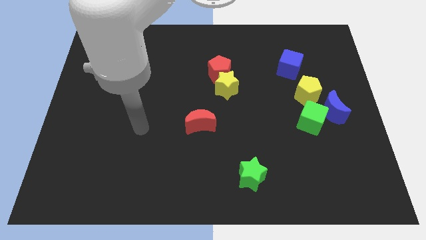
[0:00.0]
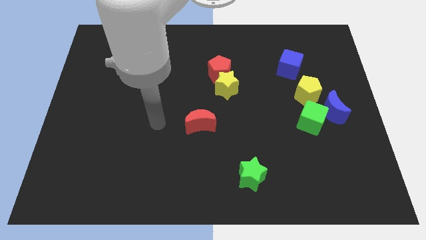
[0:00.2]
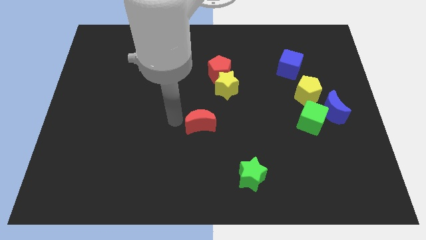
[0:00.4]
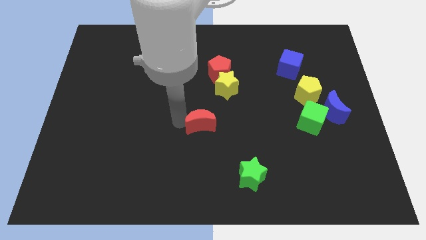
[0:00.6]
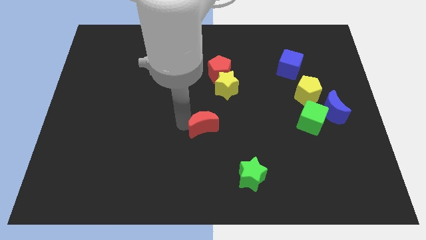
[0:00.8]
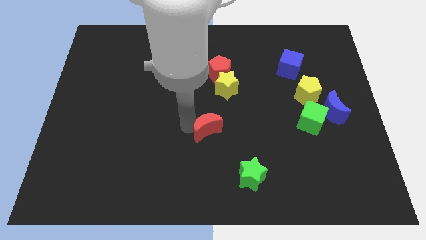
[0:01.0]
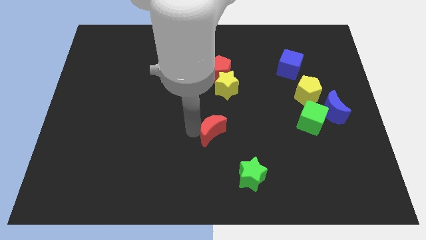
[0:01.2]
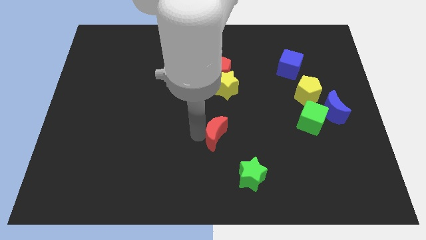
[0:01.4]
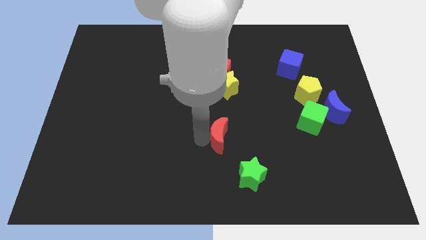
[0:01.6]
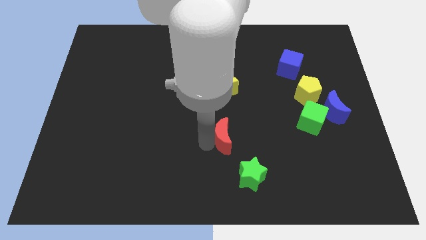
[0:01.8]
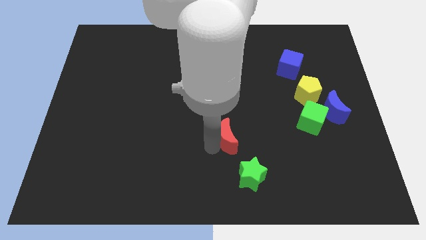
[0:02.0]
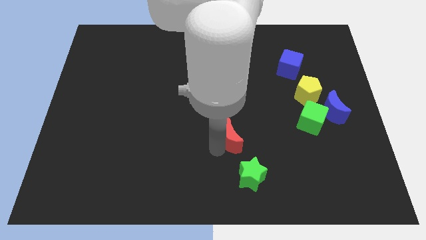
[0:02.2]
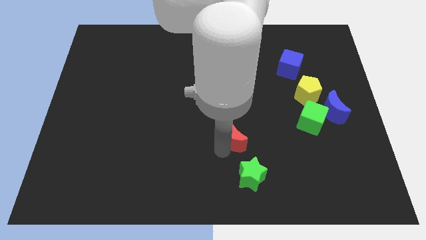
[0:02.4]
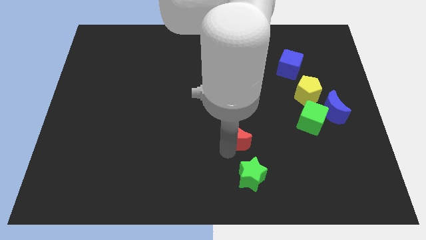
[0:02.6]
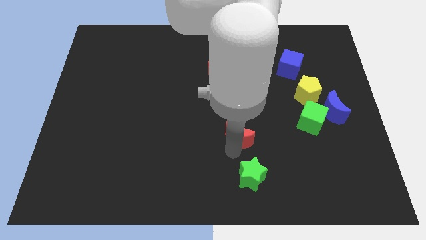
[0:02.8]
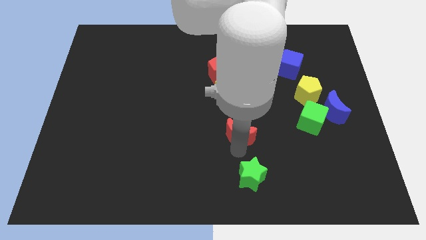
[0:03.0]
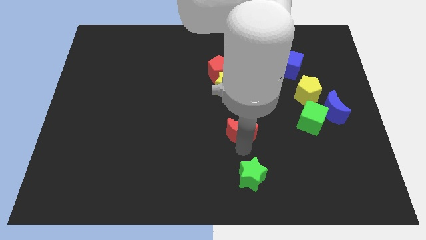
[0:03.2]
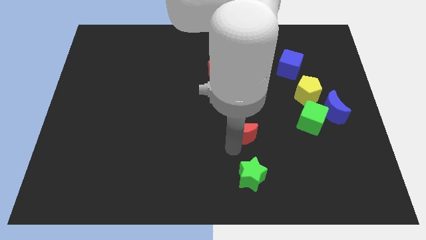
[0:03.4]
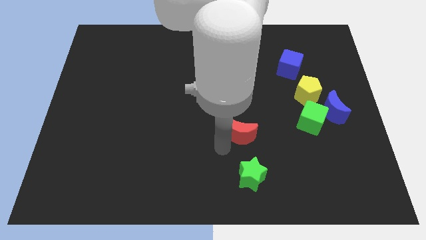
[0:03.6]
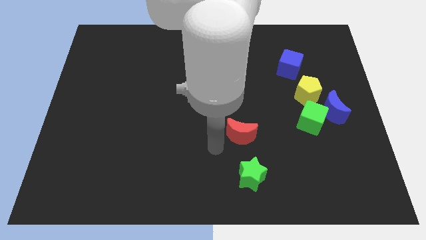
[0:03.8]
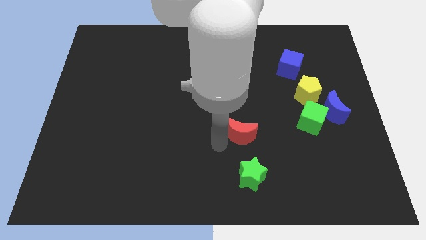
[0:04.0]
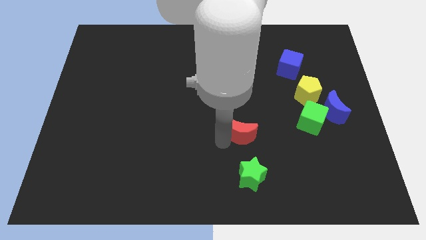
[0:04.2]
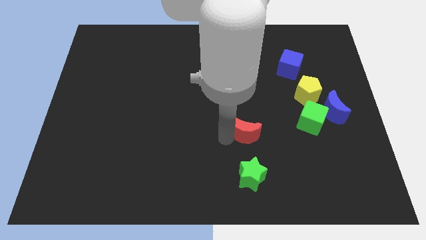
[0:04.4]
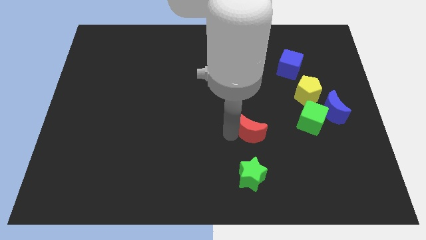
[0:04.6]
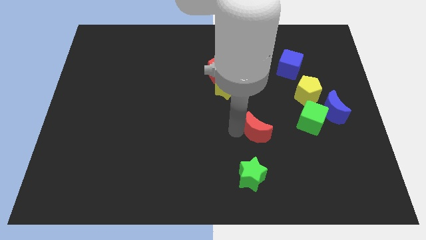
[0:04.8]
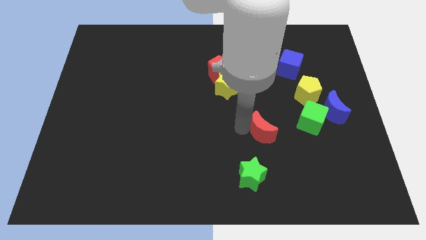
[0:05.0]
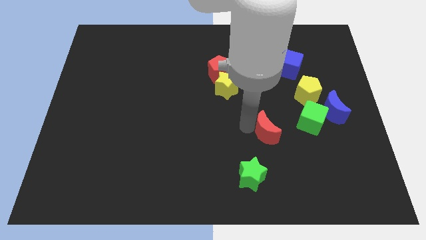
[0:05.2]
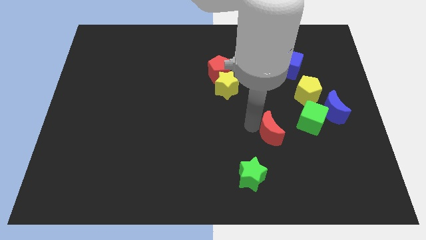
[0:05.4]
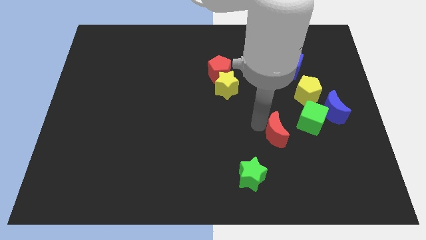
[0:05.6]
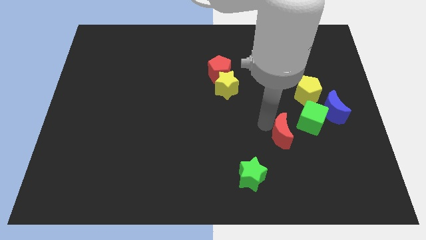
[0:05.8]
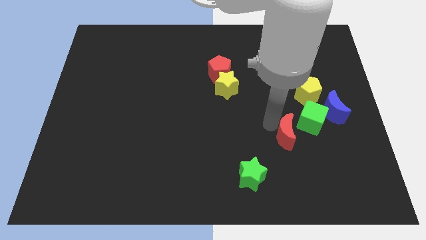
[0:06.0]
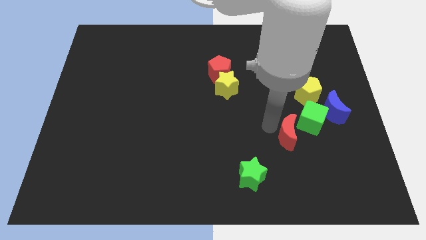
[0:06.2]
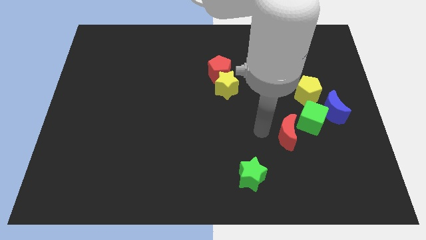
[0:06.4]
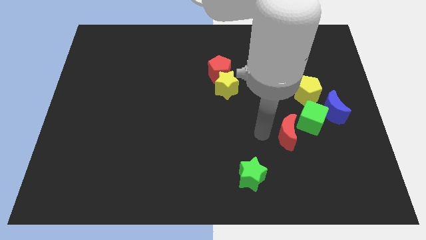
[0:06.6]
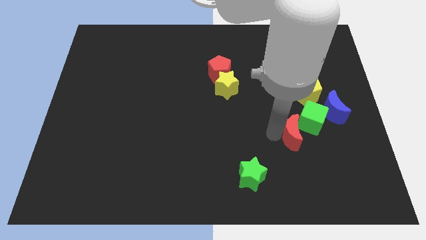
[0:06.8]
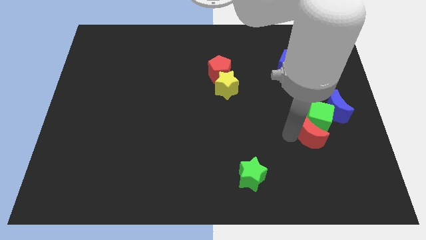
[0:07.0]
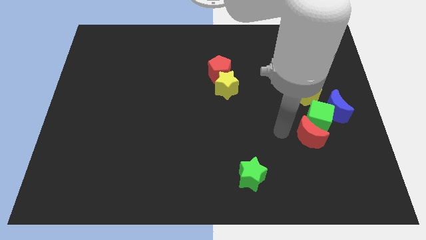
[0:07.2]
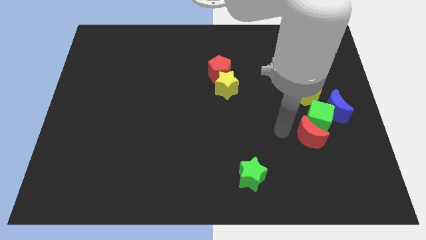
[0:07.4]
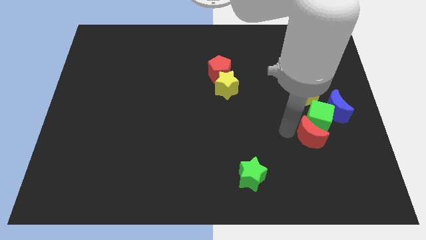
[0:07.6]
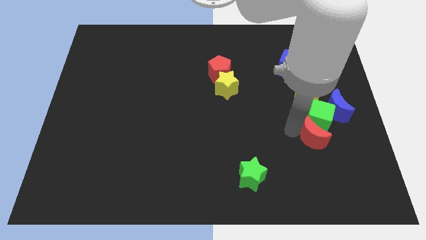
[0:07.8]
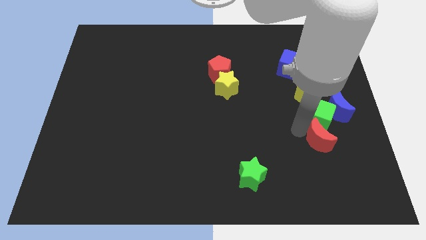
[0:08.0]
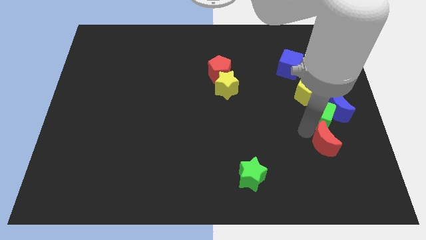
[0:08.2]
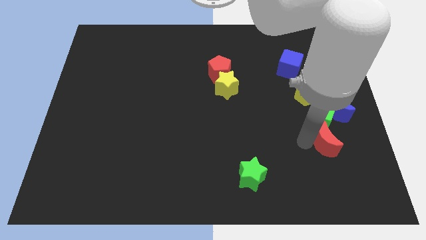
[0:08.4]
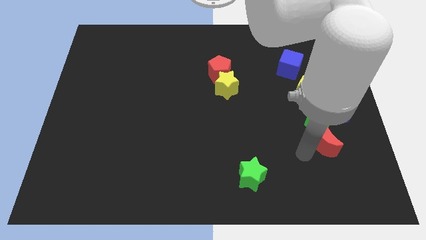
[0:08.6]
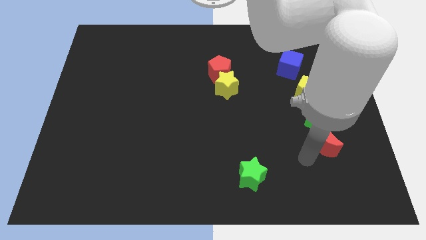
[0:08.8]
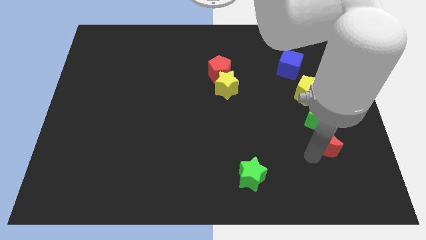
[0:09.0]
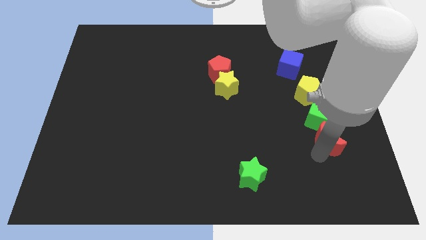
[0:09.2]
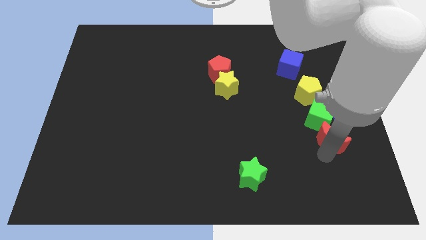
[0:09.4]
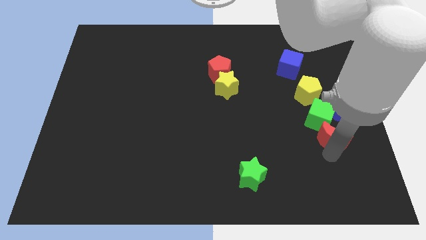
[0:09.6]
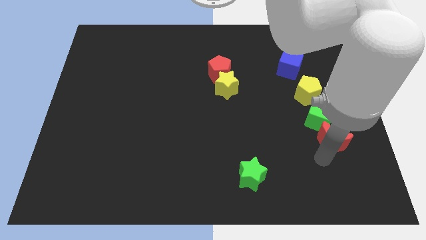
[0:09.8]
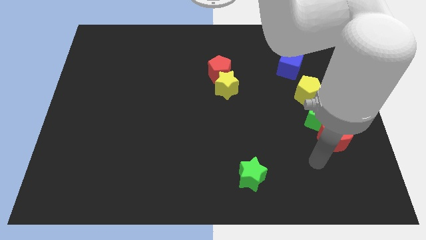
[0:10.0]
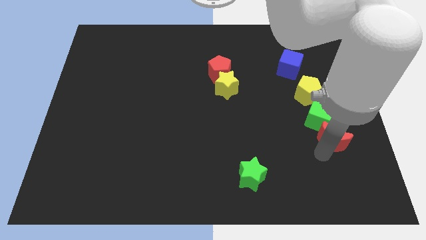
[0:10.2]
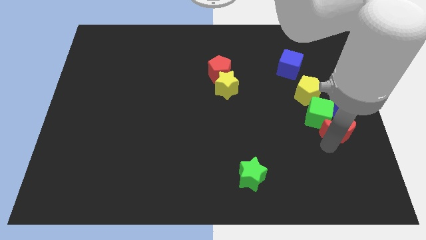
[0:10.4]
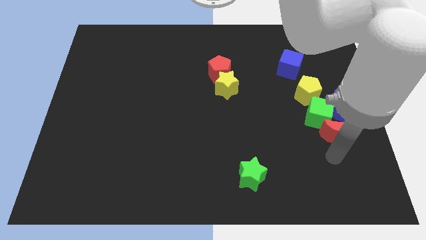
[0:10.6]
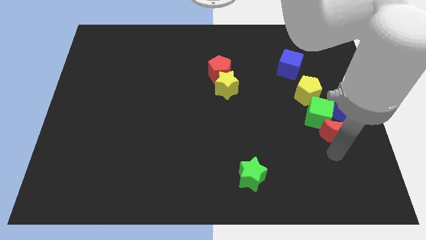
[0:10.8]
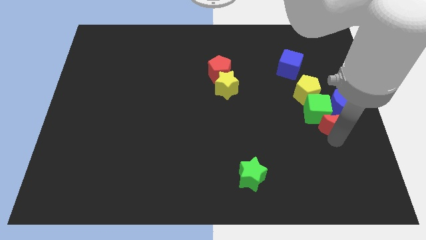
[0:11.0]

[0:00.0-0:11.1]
push the red moon towards the blue moon

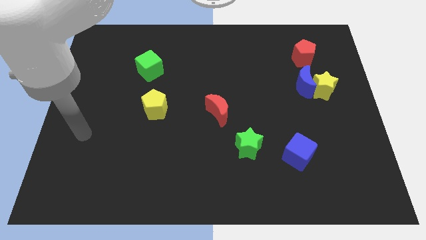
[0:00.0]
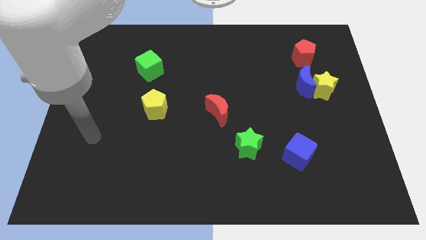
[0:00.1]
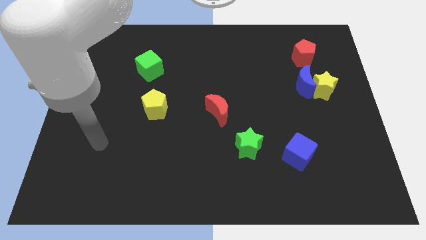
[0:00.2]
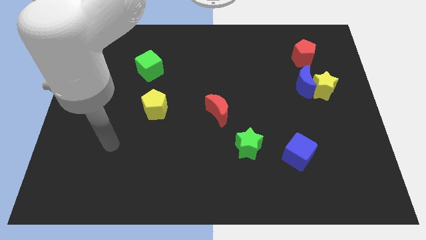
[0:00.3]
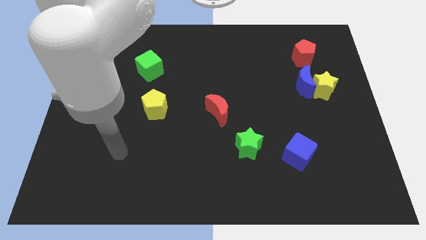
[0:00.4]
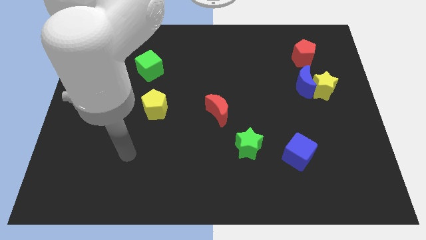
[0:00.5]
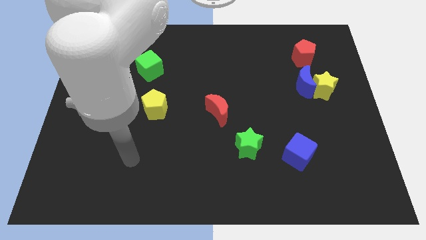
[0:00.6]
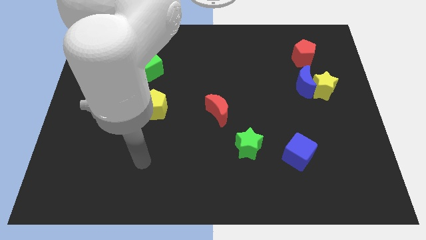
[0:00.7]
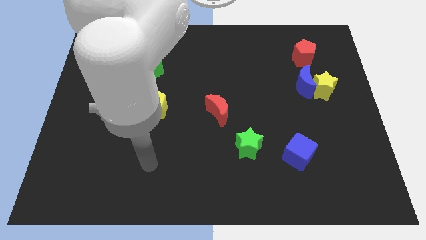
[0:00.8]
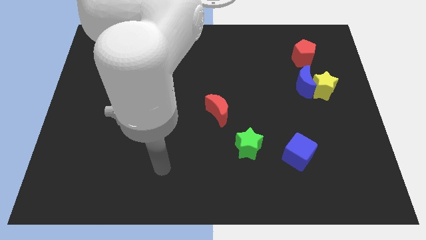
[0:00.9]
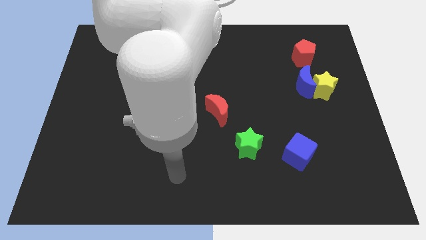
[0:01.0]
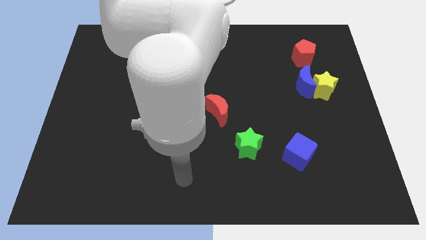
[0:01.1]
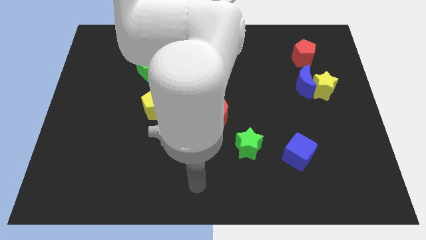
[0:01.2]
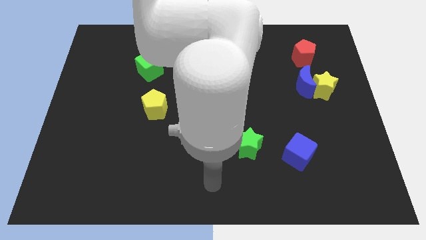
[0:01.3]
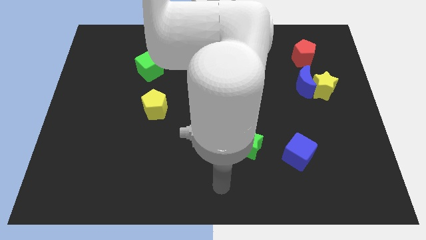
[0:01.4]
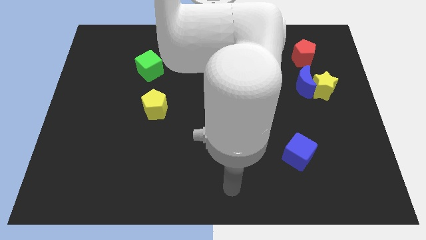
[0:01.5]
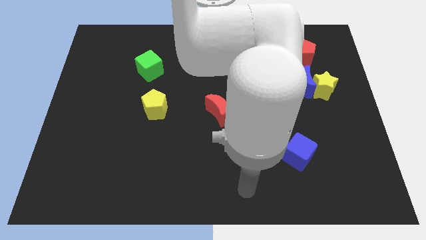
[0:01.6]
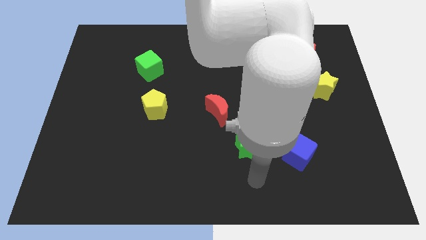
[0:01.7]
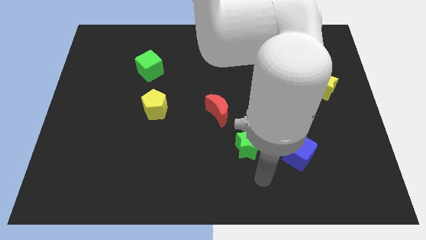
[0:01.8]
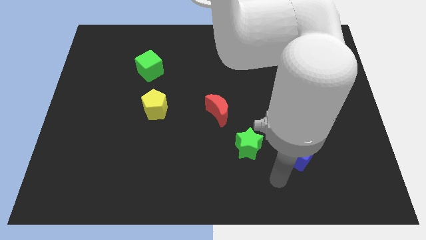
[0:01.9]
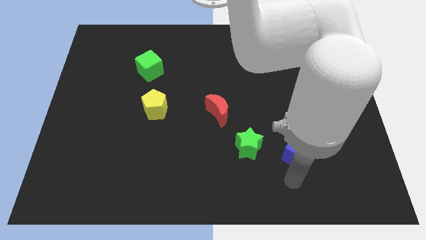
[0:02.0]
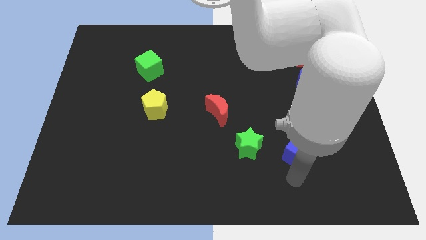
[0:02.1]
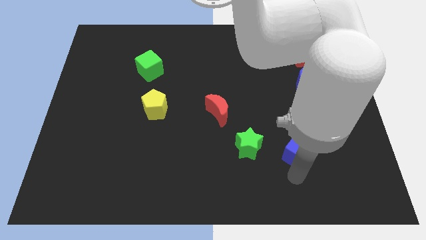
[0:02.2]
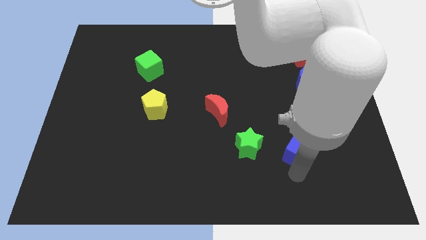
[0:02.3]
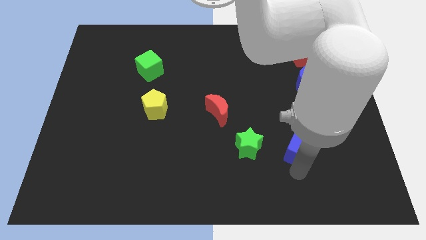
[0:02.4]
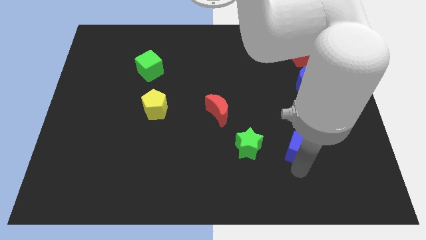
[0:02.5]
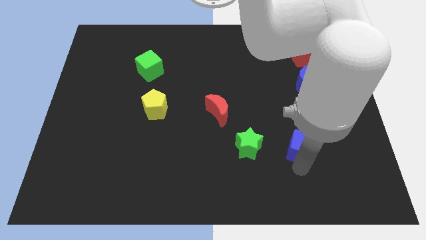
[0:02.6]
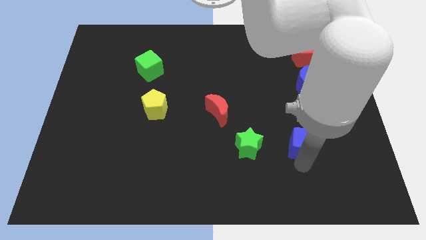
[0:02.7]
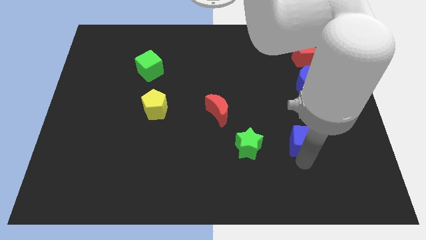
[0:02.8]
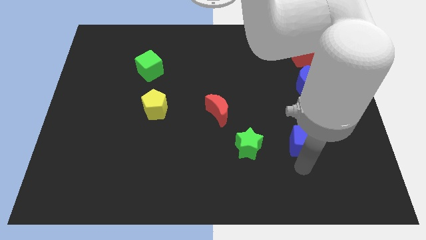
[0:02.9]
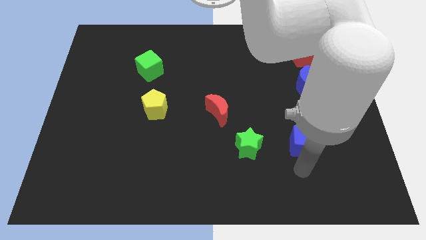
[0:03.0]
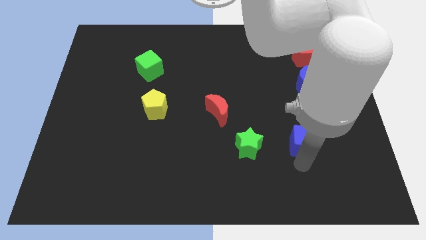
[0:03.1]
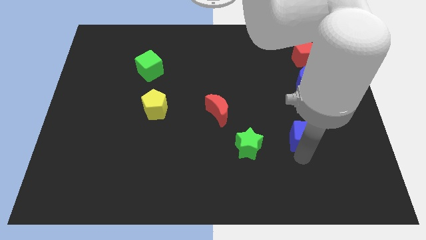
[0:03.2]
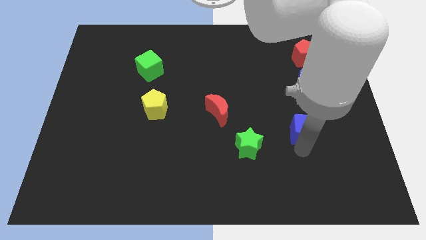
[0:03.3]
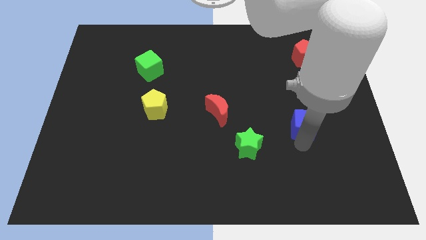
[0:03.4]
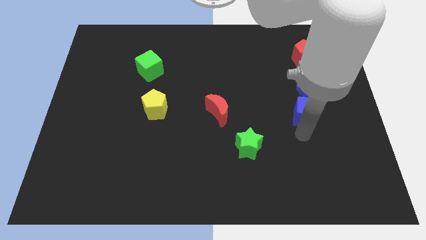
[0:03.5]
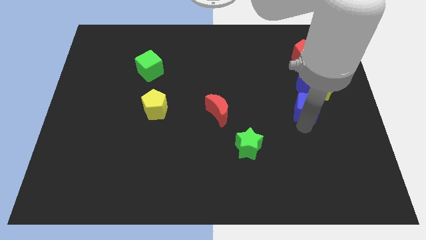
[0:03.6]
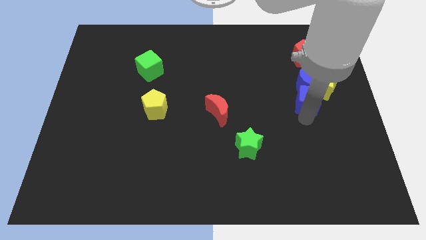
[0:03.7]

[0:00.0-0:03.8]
put the blue cube close to the blue moon
